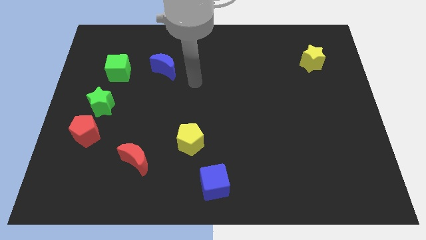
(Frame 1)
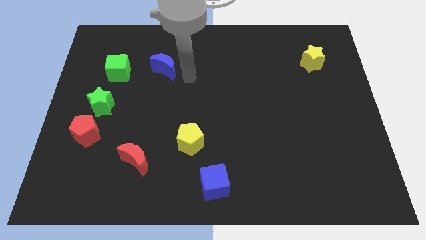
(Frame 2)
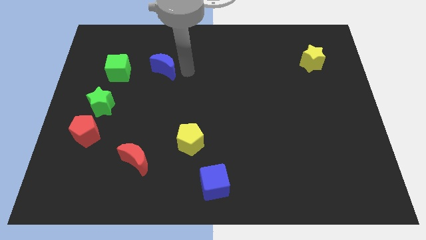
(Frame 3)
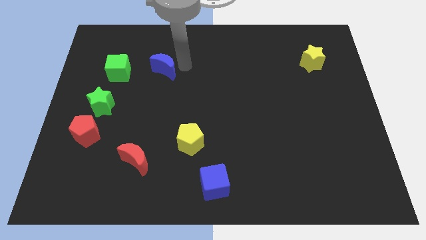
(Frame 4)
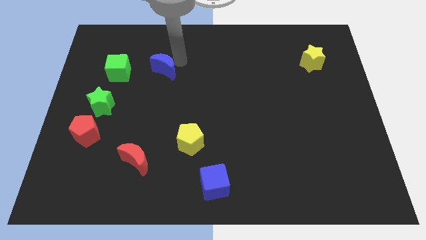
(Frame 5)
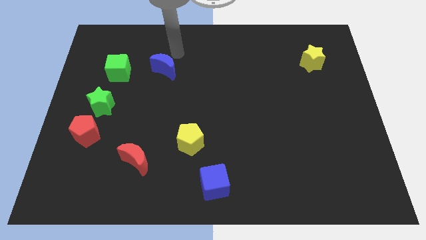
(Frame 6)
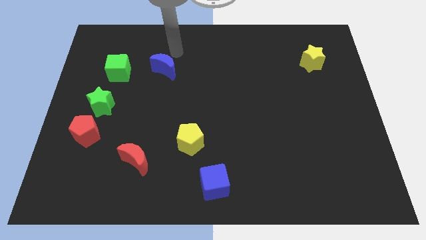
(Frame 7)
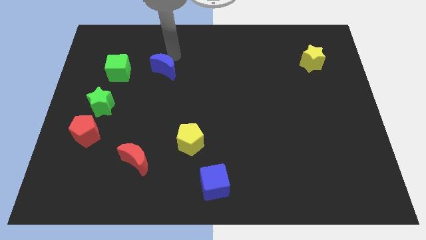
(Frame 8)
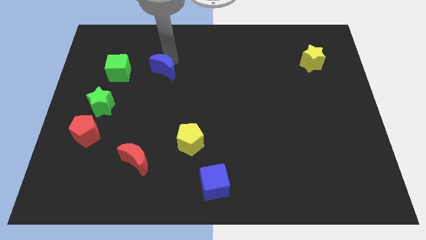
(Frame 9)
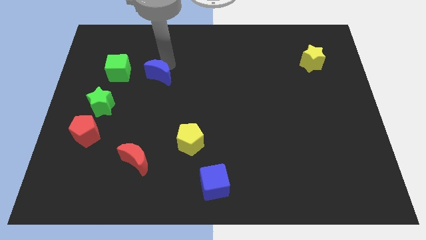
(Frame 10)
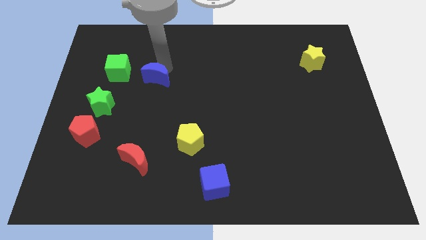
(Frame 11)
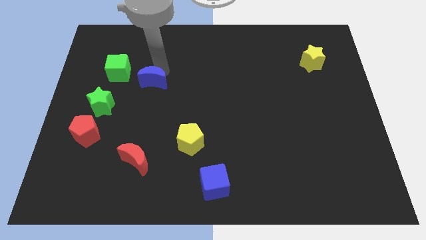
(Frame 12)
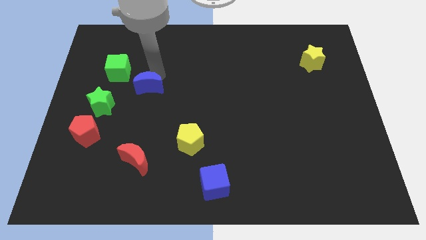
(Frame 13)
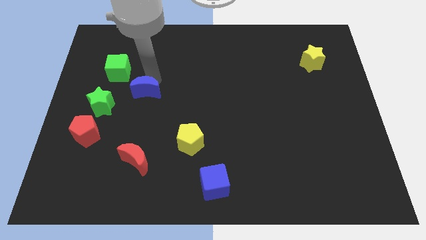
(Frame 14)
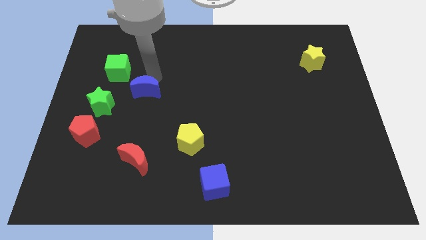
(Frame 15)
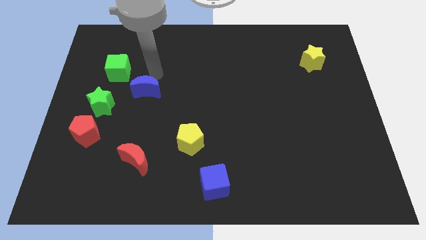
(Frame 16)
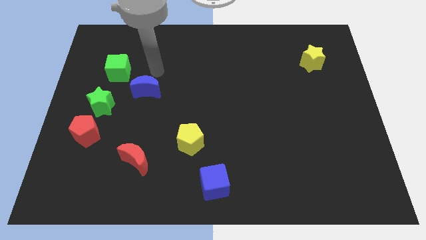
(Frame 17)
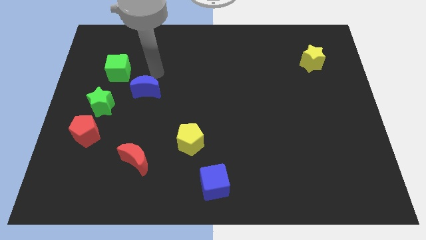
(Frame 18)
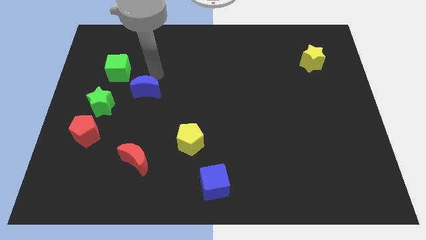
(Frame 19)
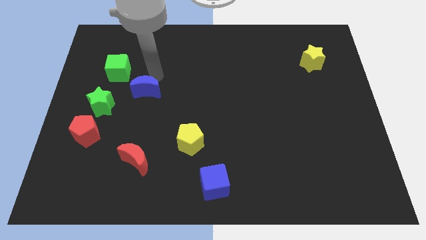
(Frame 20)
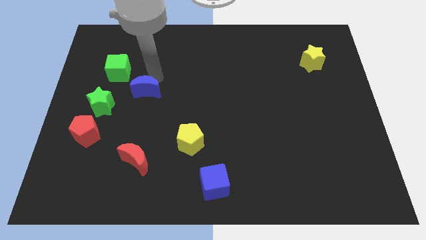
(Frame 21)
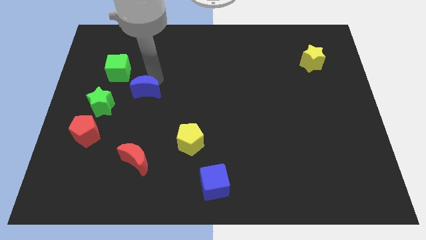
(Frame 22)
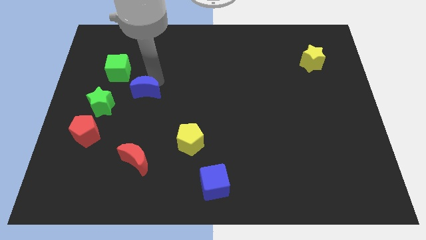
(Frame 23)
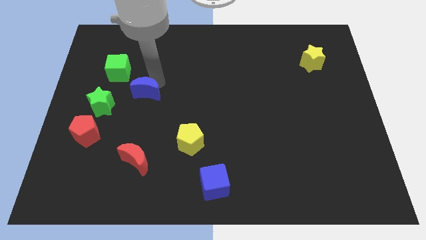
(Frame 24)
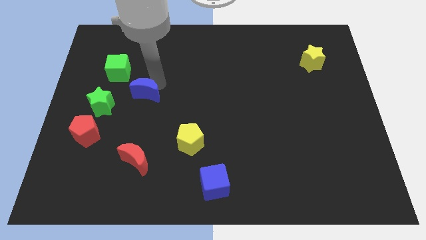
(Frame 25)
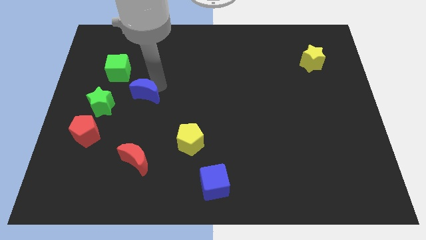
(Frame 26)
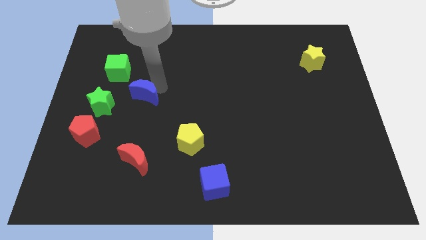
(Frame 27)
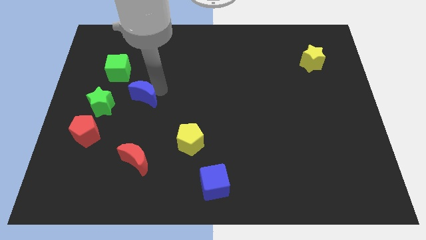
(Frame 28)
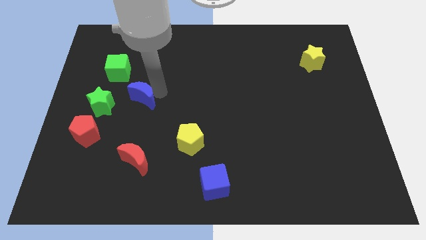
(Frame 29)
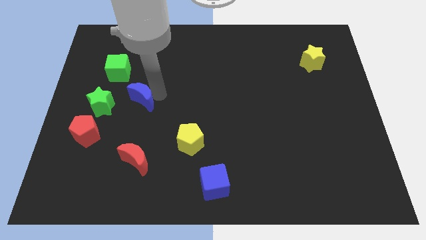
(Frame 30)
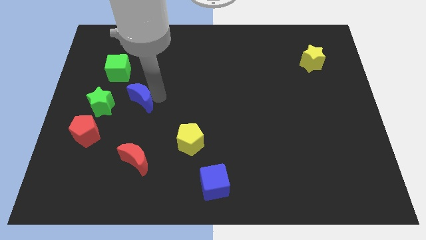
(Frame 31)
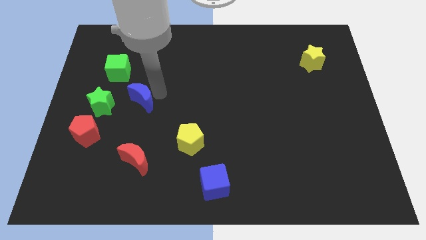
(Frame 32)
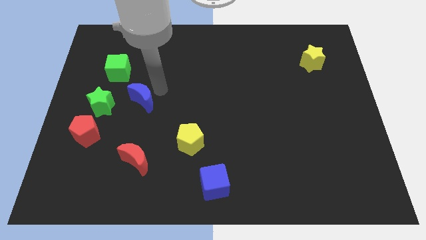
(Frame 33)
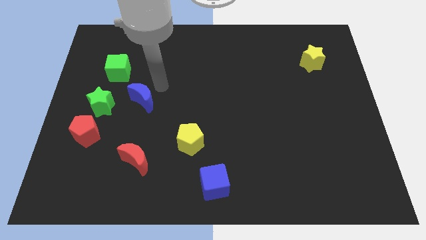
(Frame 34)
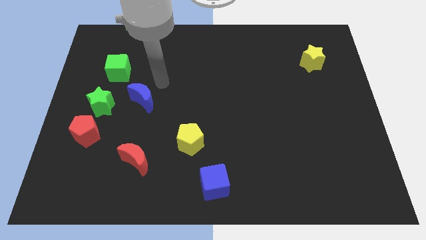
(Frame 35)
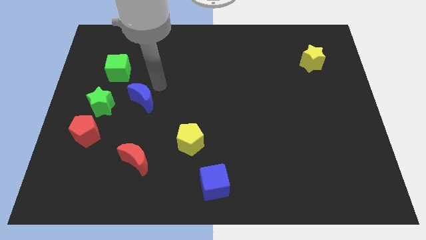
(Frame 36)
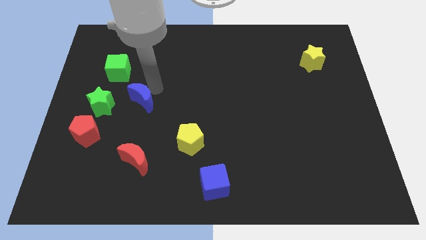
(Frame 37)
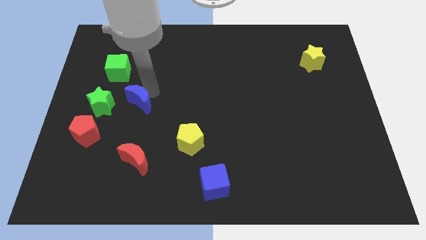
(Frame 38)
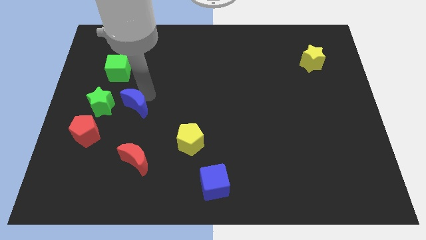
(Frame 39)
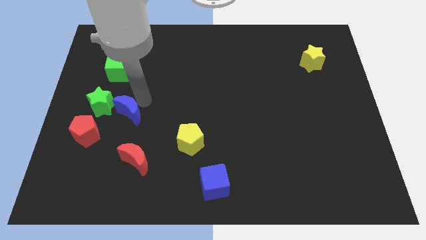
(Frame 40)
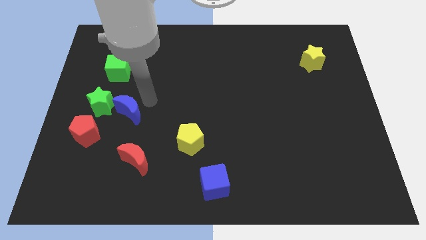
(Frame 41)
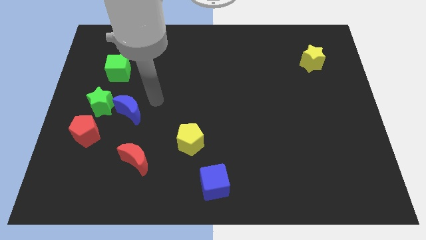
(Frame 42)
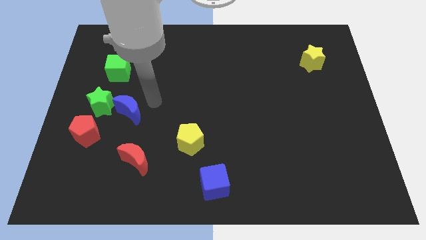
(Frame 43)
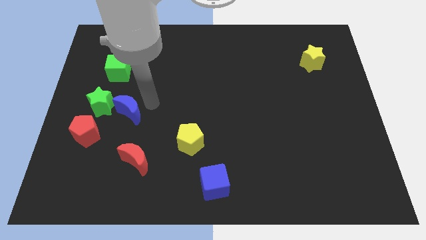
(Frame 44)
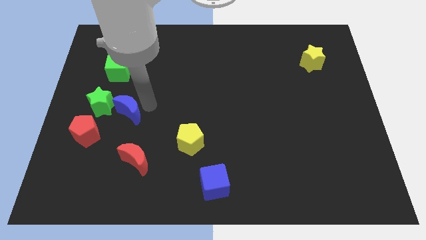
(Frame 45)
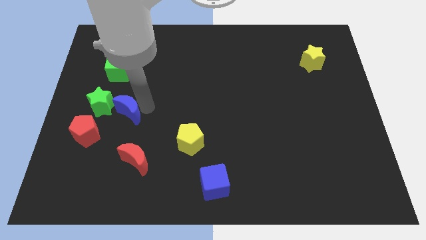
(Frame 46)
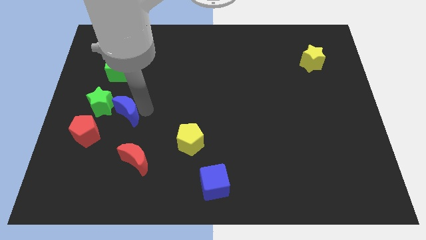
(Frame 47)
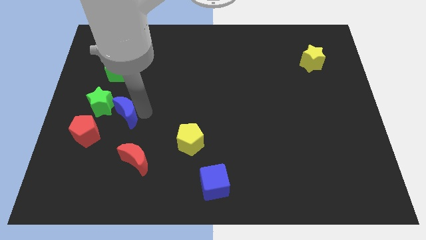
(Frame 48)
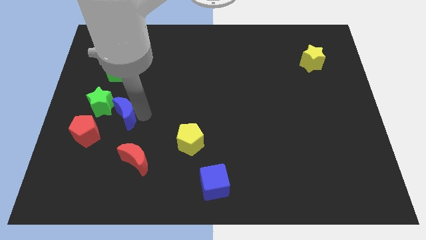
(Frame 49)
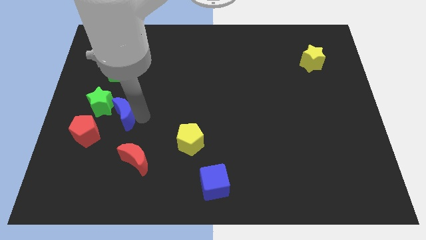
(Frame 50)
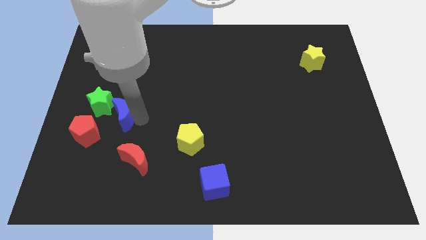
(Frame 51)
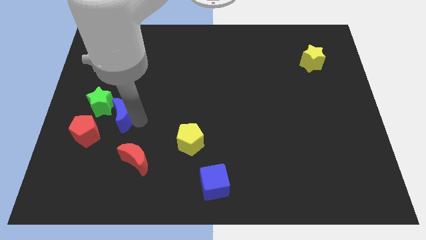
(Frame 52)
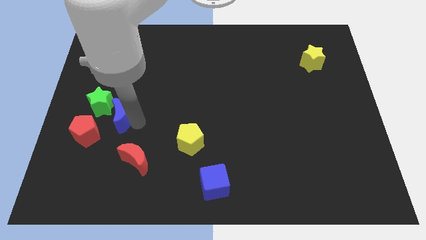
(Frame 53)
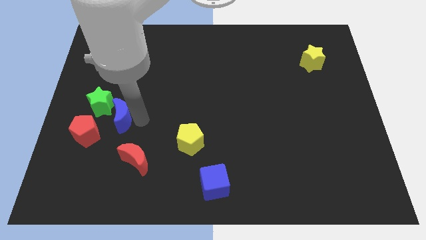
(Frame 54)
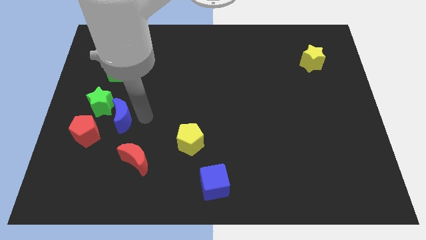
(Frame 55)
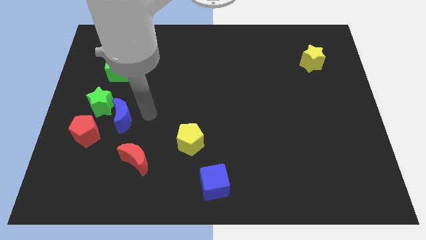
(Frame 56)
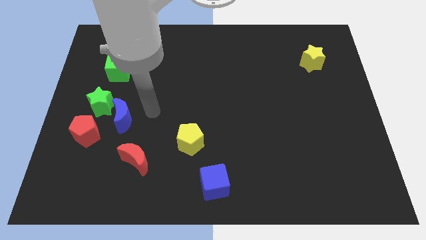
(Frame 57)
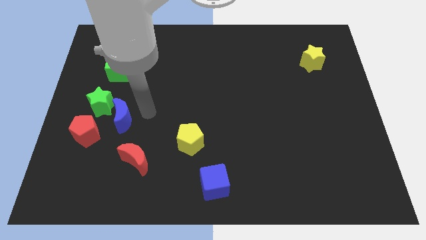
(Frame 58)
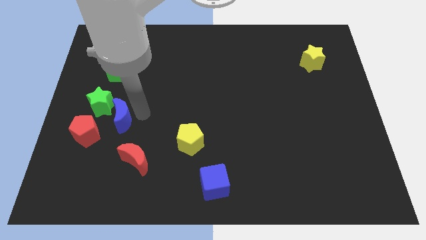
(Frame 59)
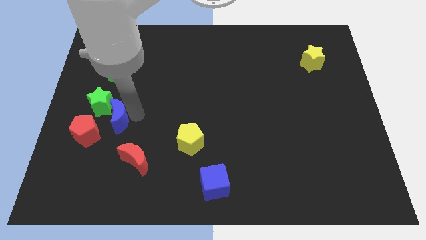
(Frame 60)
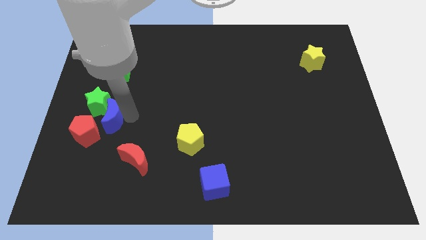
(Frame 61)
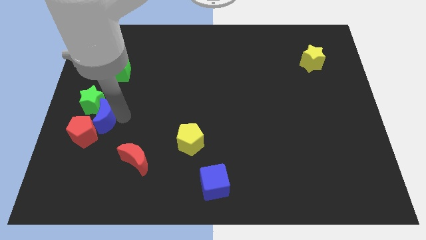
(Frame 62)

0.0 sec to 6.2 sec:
put the blue moon close to the red pentagon

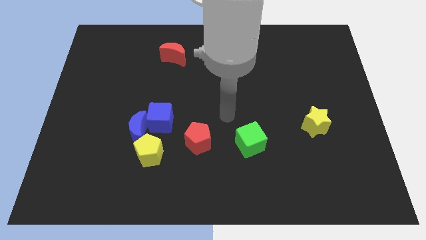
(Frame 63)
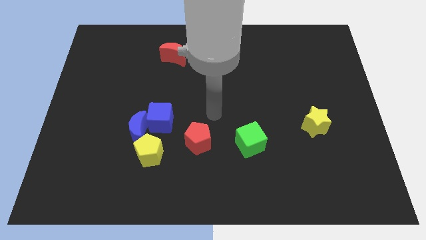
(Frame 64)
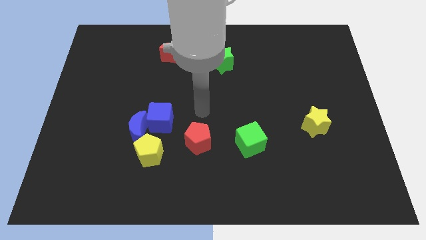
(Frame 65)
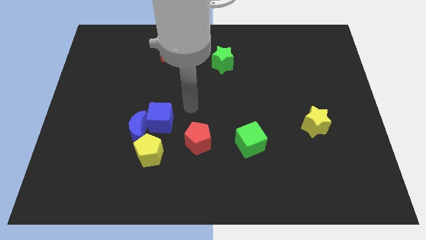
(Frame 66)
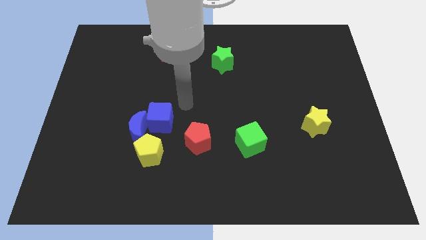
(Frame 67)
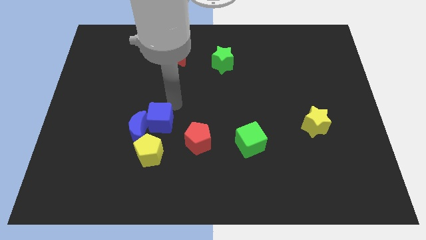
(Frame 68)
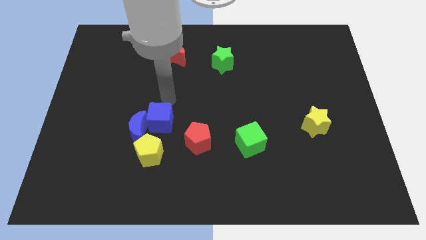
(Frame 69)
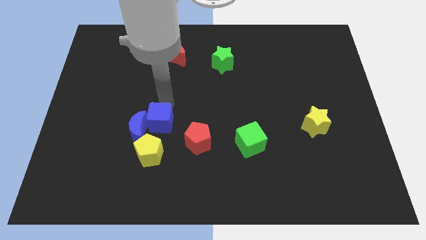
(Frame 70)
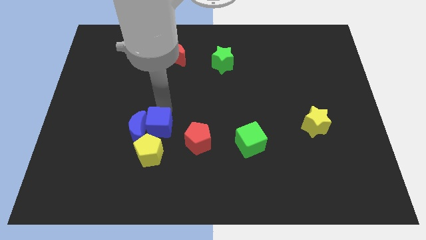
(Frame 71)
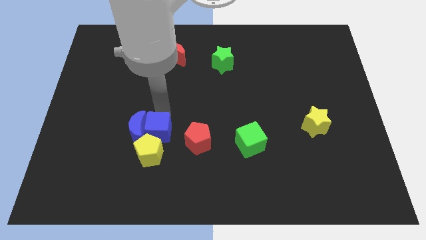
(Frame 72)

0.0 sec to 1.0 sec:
slide the blue cube close to the yellow pentagon
